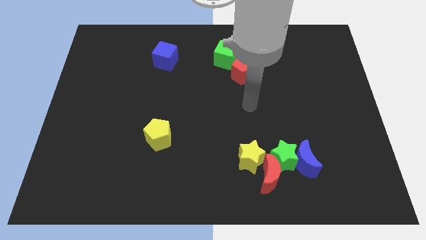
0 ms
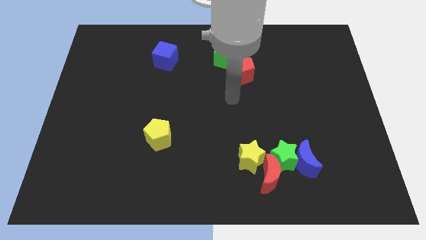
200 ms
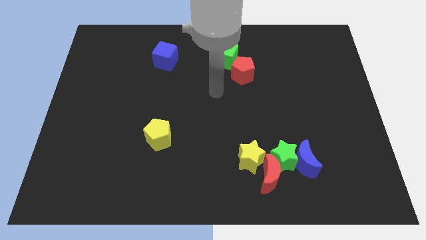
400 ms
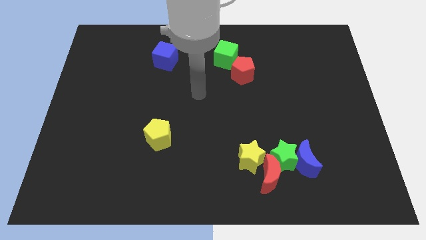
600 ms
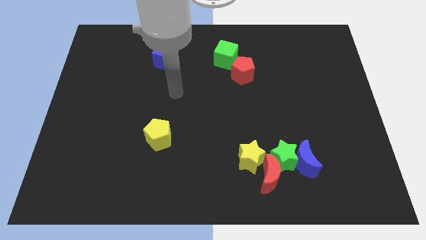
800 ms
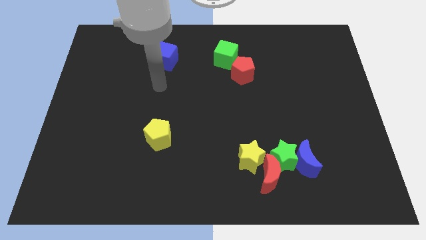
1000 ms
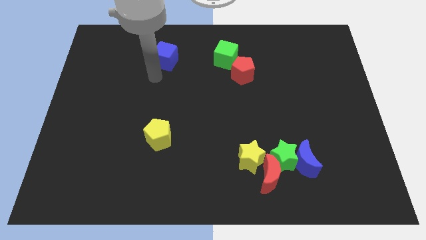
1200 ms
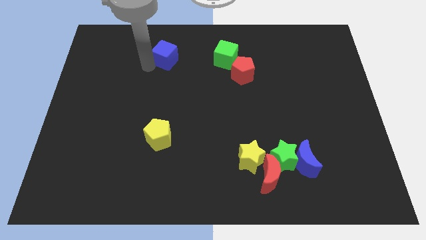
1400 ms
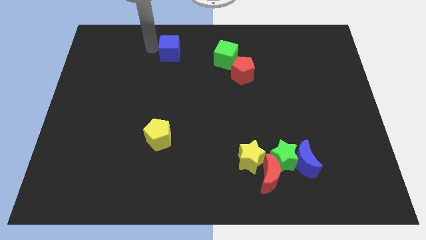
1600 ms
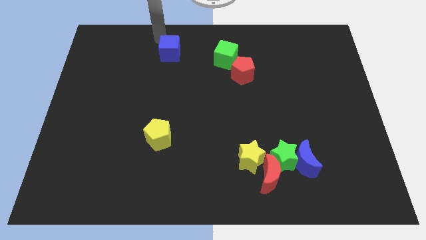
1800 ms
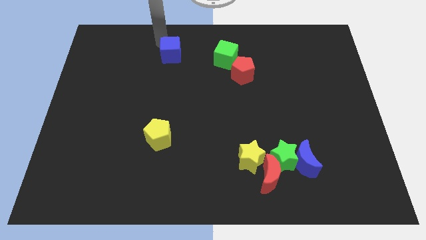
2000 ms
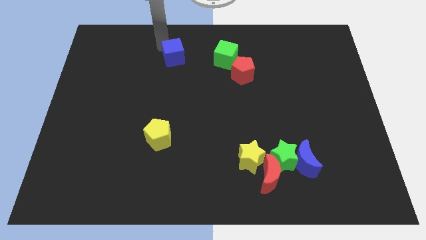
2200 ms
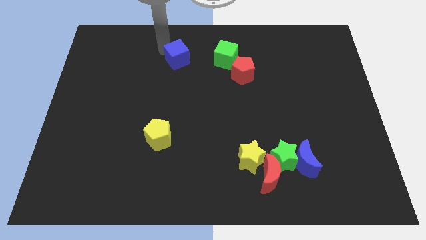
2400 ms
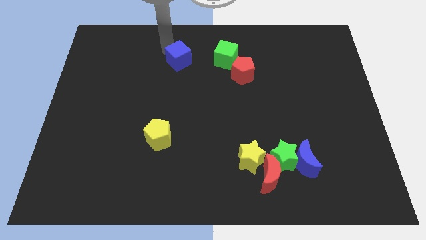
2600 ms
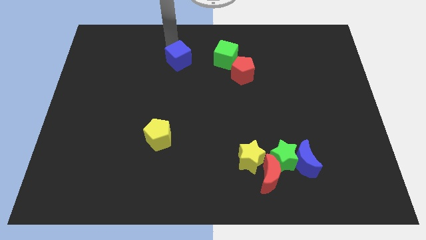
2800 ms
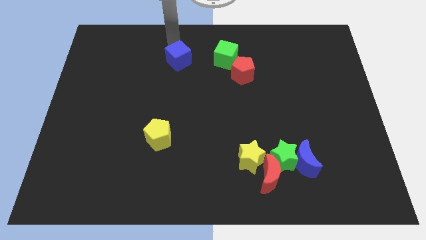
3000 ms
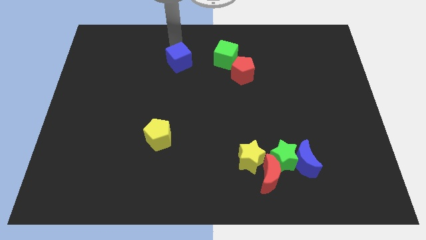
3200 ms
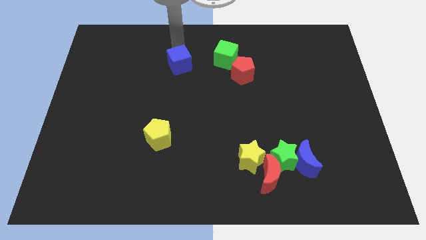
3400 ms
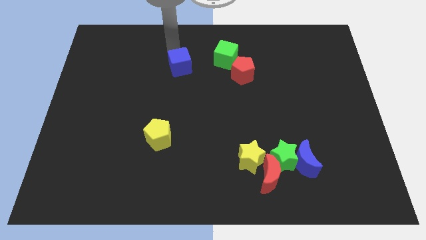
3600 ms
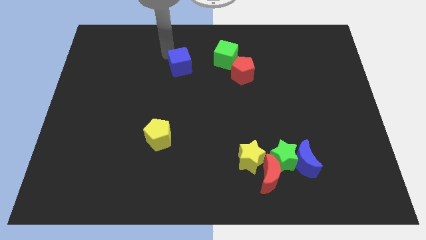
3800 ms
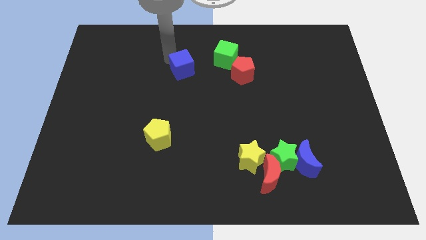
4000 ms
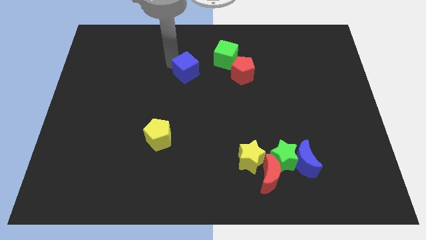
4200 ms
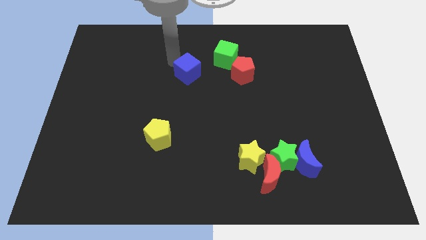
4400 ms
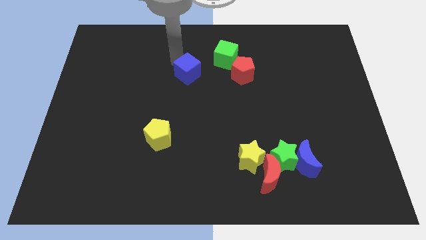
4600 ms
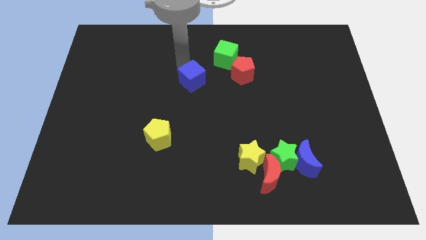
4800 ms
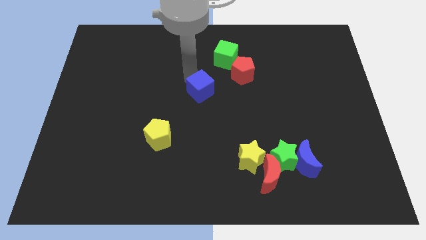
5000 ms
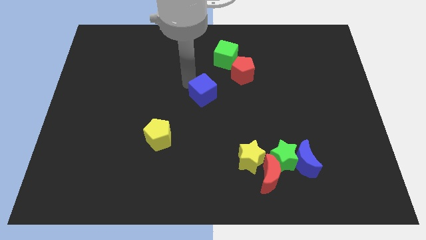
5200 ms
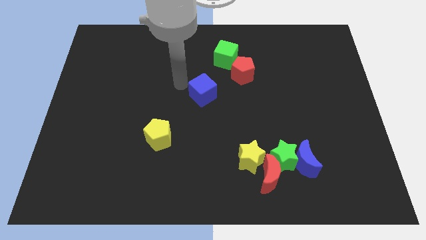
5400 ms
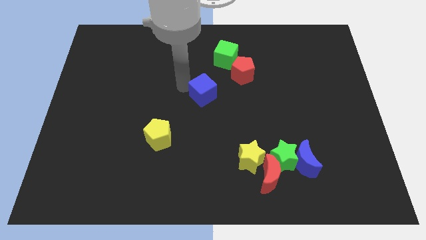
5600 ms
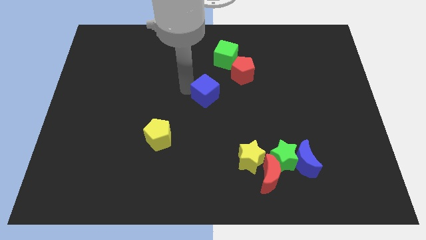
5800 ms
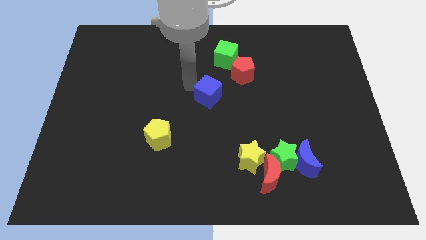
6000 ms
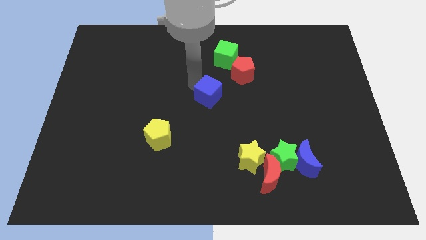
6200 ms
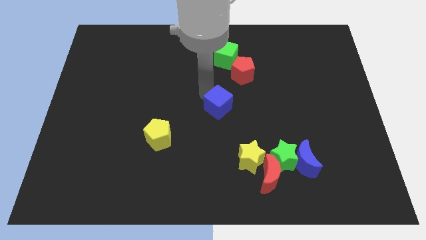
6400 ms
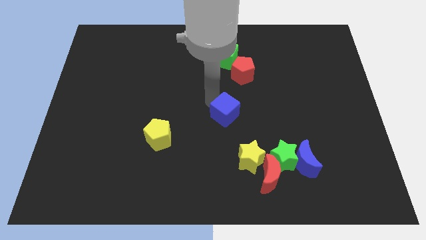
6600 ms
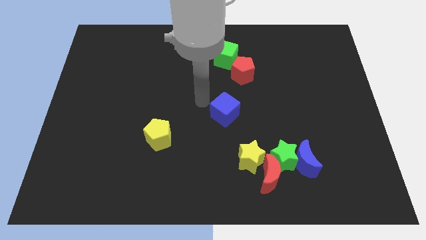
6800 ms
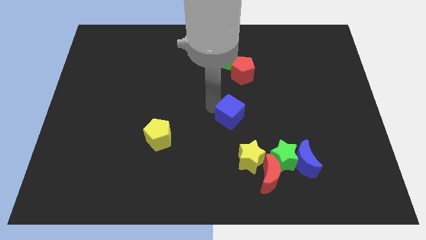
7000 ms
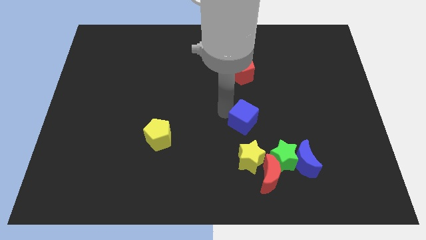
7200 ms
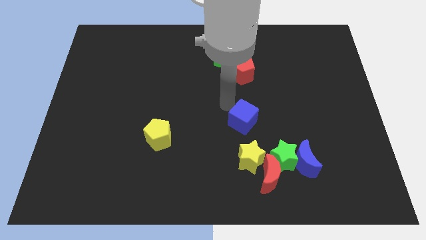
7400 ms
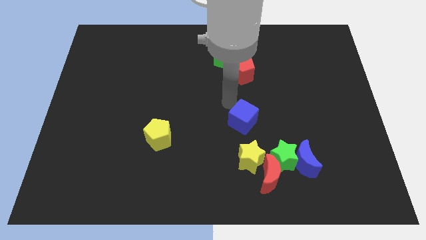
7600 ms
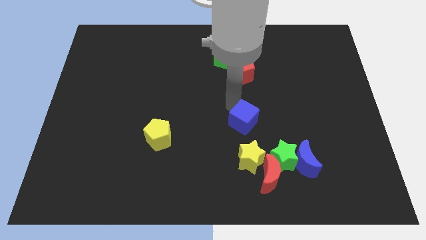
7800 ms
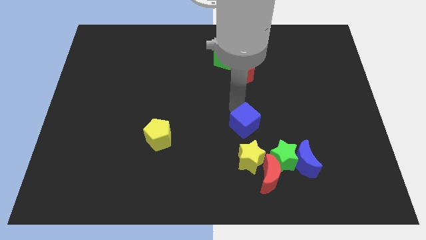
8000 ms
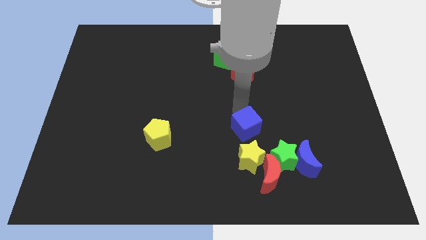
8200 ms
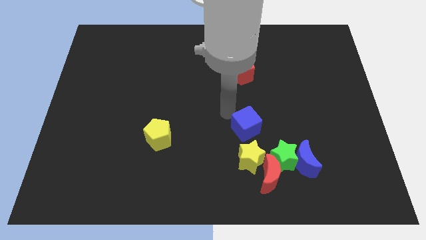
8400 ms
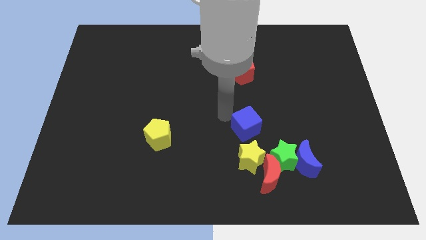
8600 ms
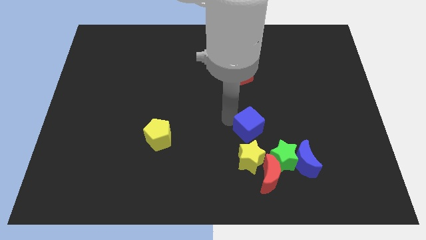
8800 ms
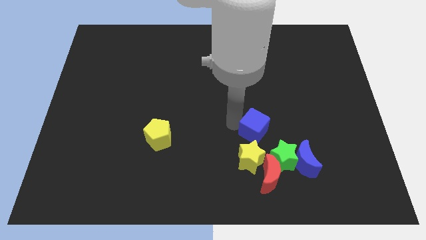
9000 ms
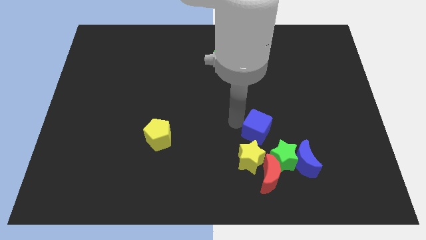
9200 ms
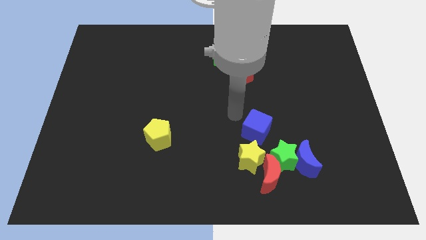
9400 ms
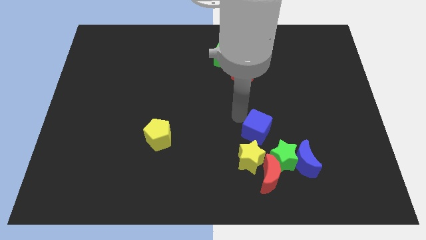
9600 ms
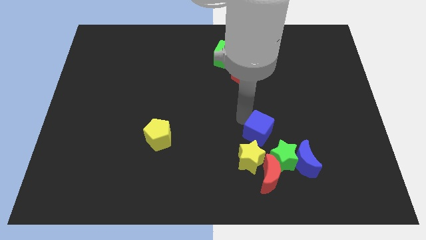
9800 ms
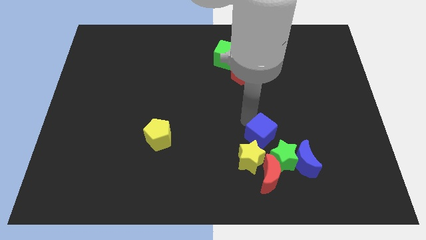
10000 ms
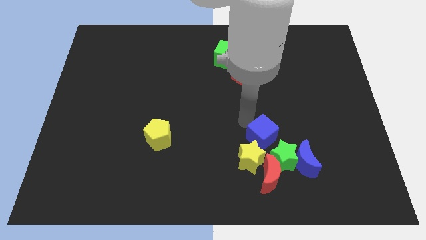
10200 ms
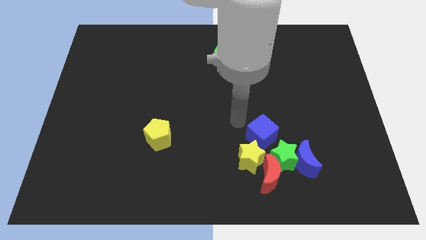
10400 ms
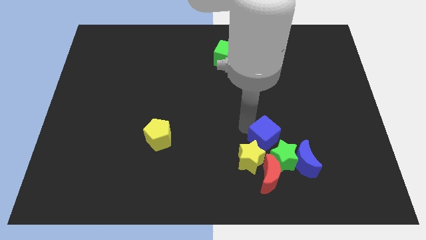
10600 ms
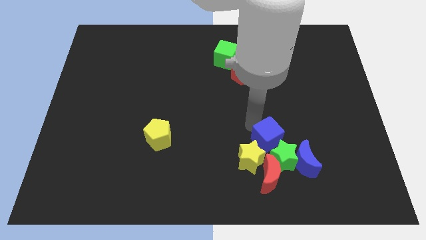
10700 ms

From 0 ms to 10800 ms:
slide the blue cube towards the green star

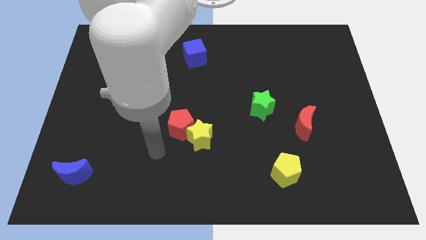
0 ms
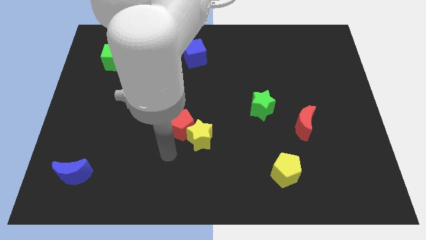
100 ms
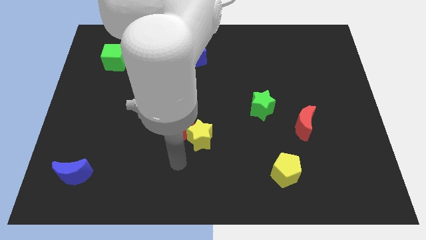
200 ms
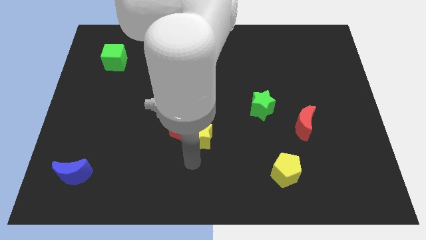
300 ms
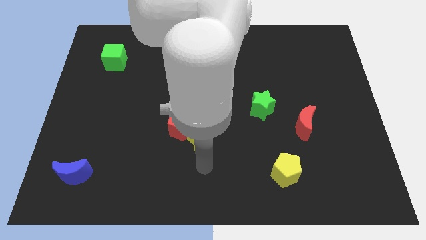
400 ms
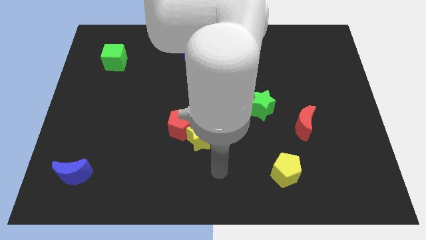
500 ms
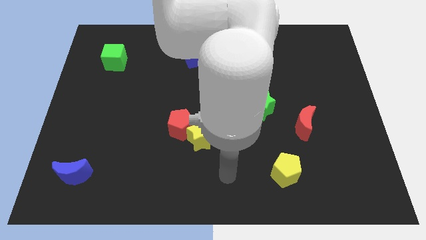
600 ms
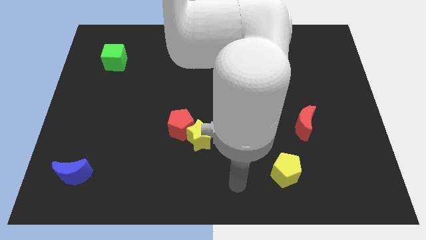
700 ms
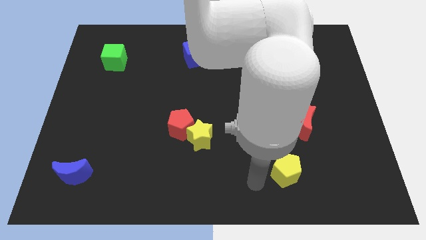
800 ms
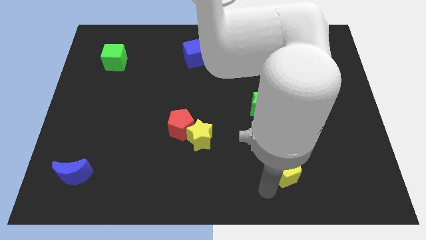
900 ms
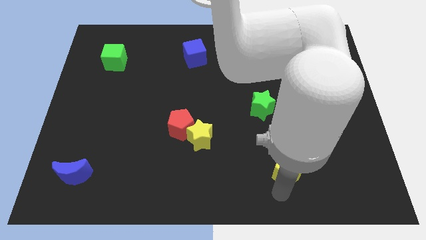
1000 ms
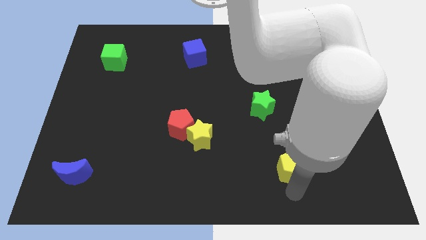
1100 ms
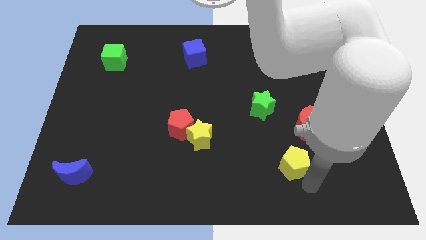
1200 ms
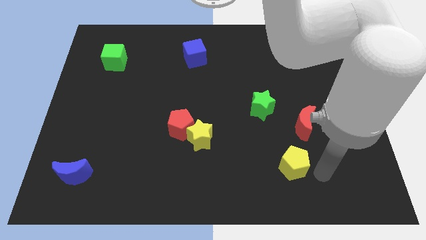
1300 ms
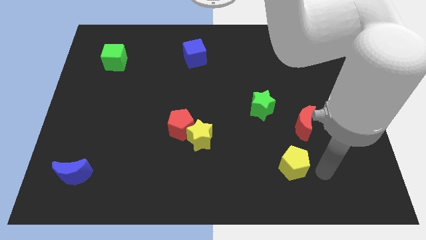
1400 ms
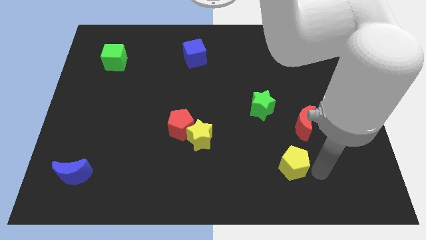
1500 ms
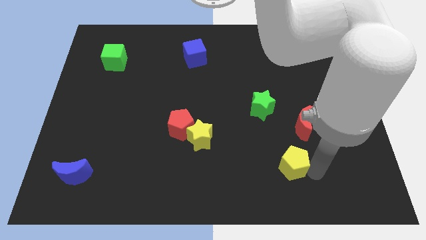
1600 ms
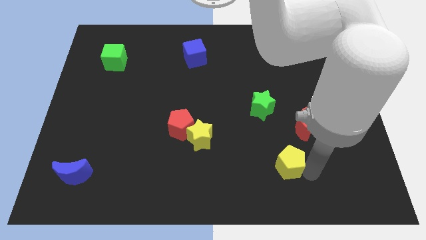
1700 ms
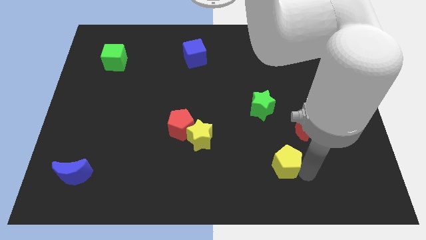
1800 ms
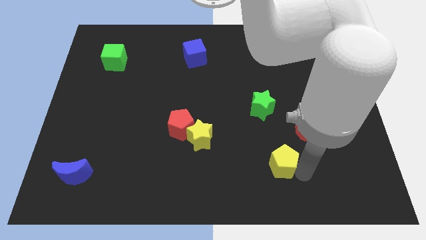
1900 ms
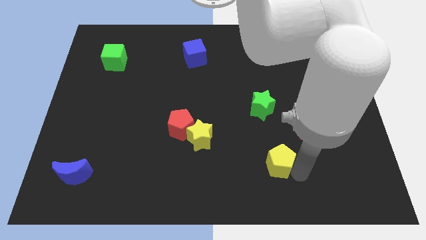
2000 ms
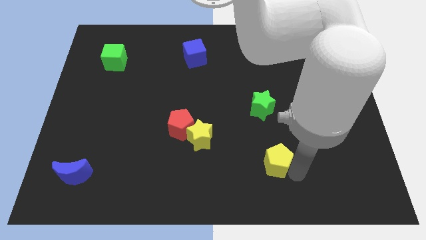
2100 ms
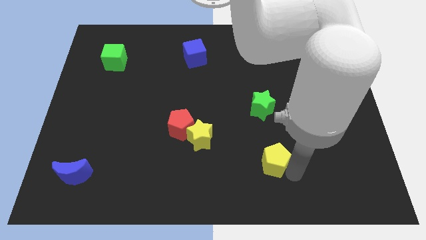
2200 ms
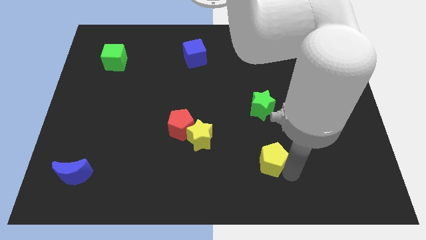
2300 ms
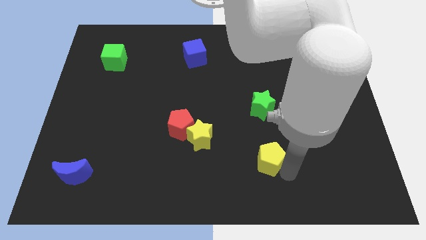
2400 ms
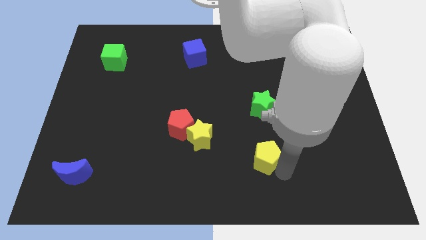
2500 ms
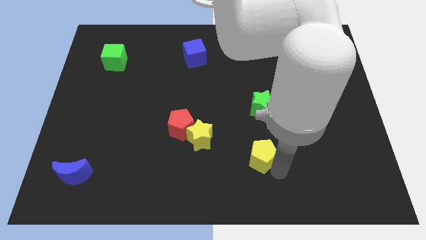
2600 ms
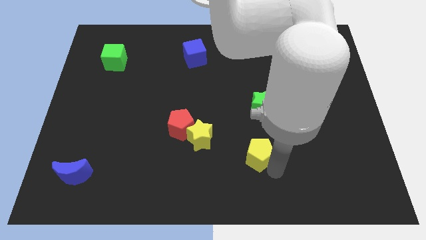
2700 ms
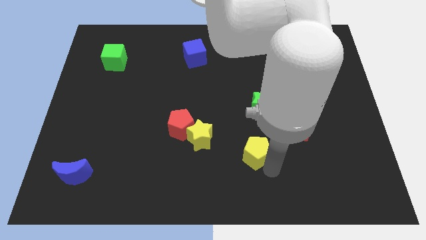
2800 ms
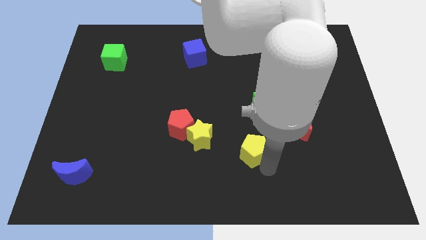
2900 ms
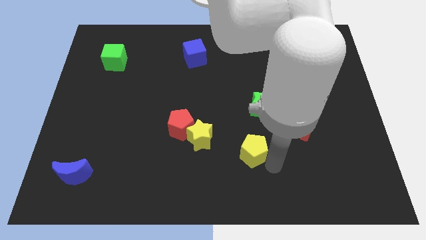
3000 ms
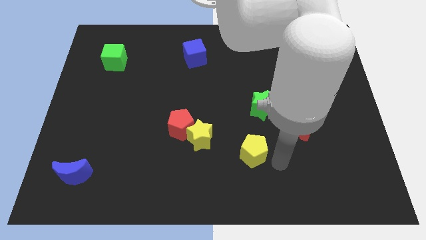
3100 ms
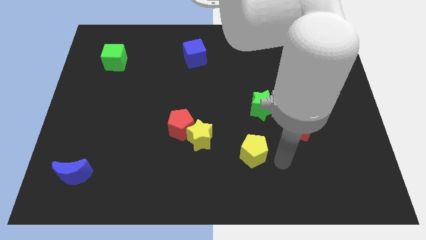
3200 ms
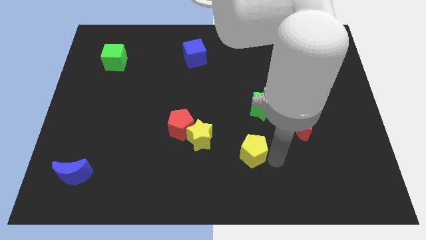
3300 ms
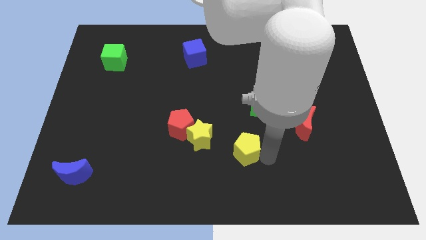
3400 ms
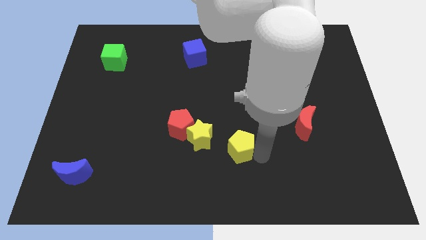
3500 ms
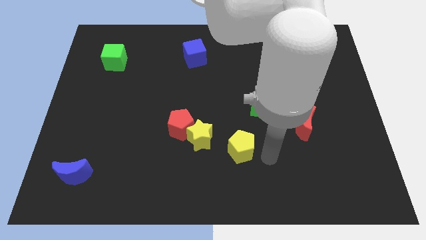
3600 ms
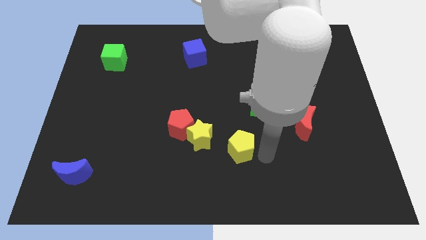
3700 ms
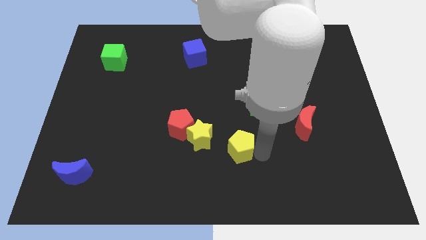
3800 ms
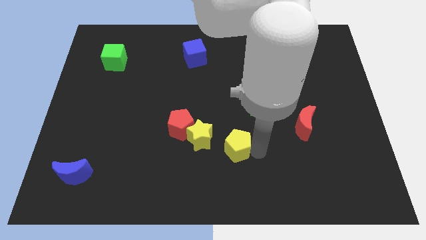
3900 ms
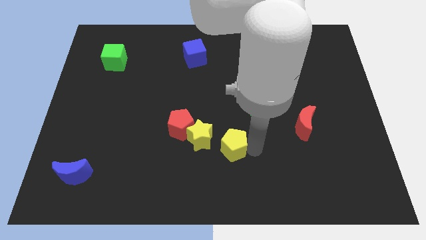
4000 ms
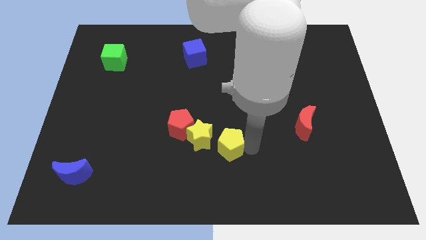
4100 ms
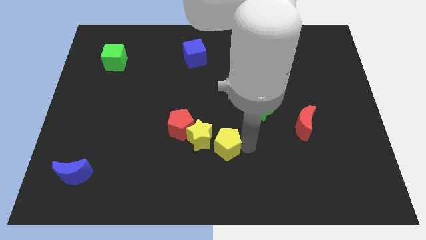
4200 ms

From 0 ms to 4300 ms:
put the yellow pentagon next to the yellow star
